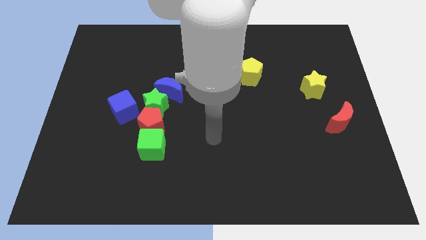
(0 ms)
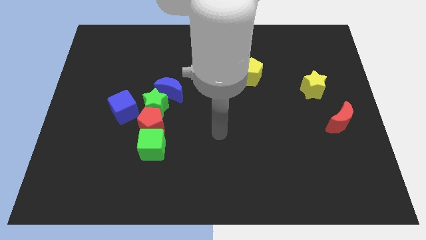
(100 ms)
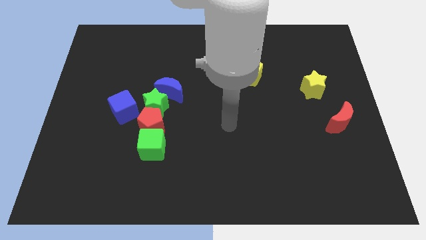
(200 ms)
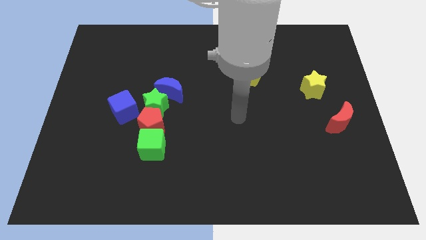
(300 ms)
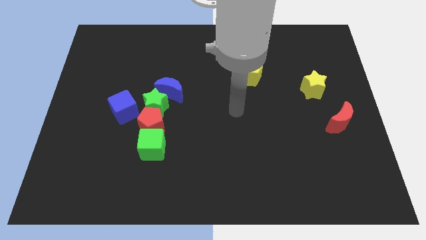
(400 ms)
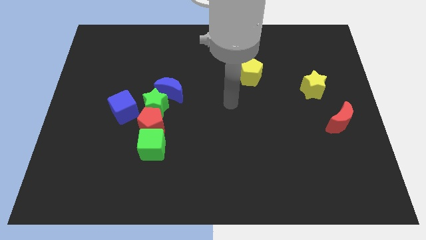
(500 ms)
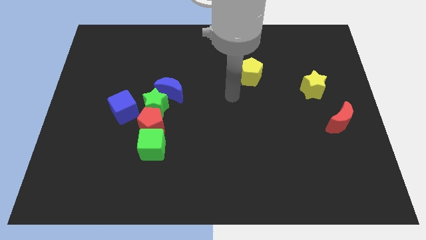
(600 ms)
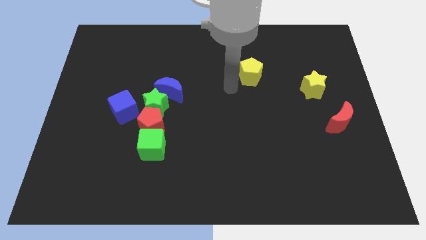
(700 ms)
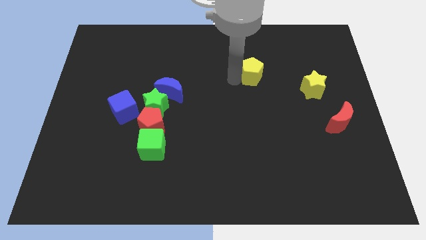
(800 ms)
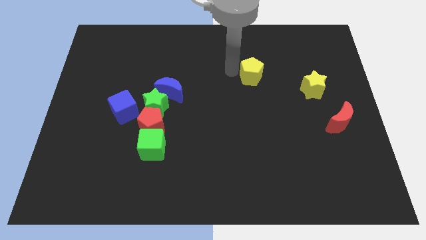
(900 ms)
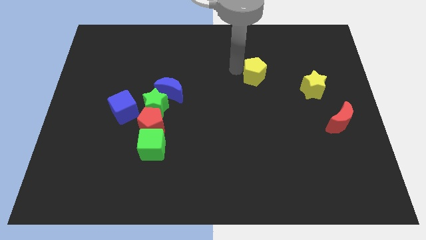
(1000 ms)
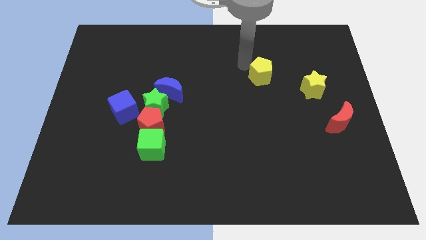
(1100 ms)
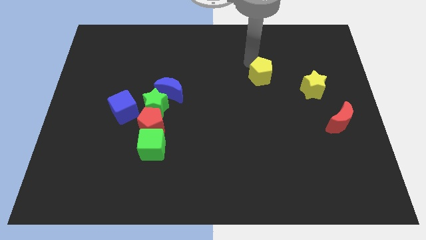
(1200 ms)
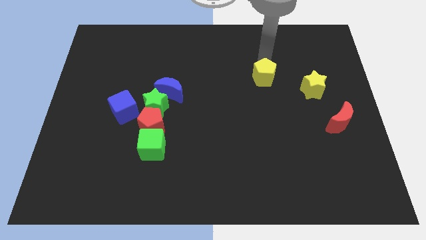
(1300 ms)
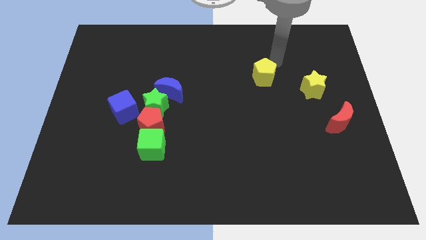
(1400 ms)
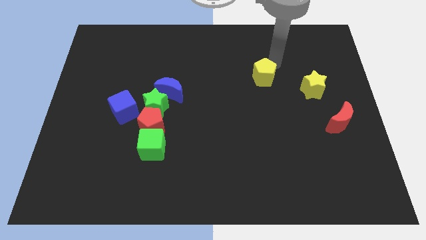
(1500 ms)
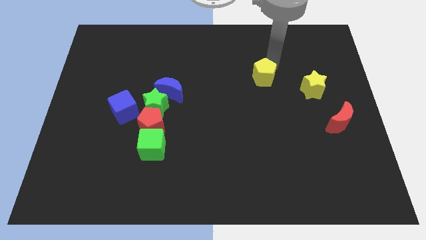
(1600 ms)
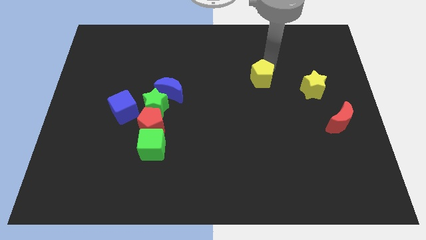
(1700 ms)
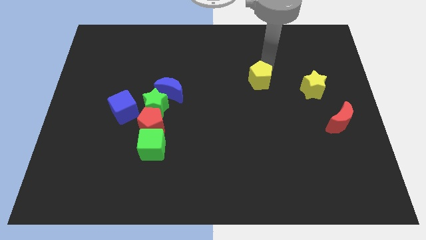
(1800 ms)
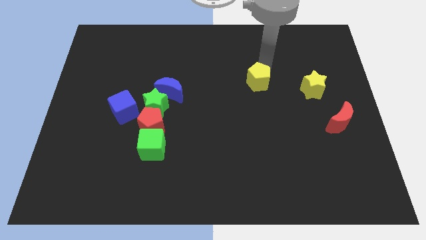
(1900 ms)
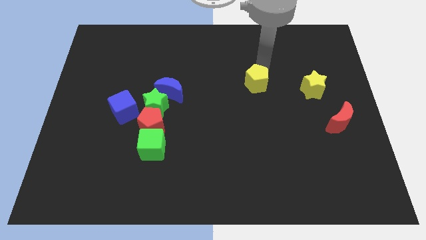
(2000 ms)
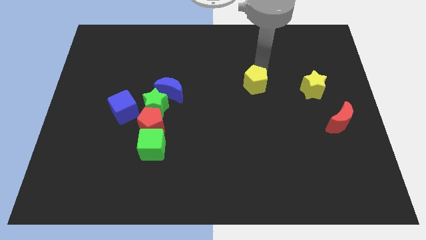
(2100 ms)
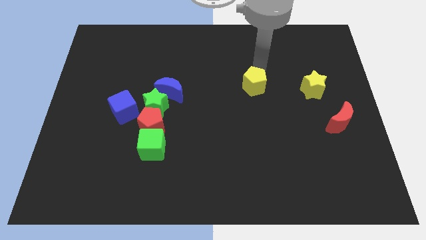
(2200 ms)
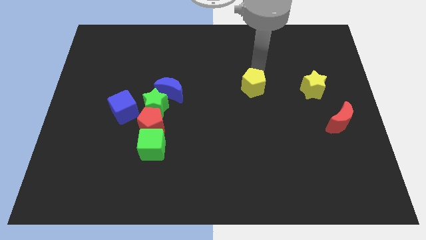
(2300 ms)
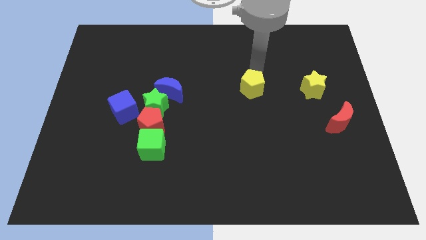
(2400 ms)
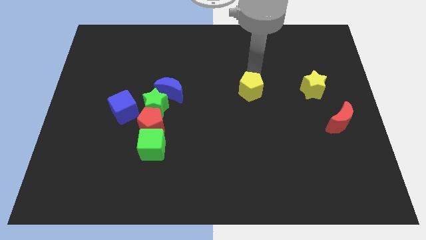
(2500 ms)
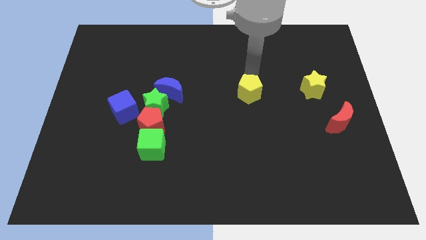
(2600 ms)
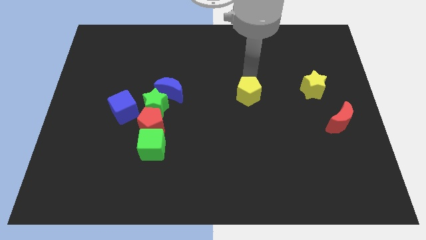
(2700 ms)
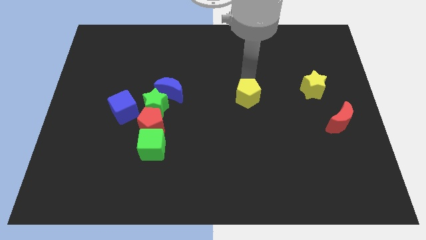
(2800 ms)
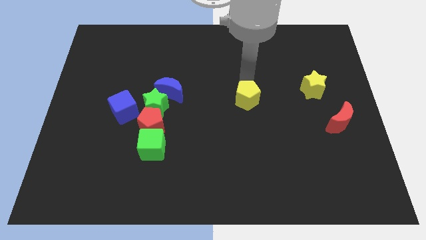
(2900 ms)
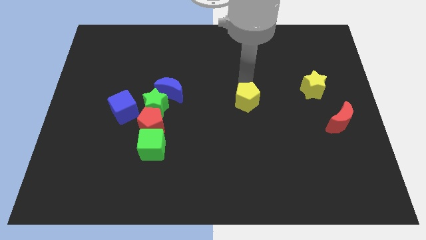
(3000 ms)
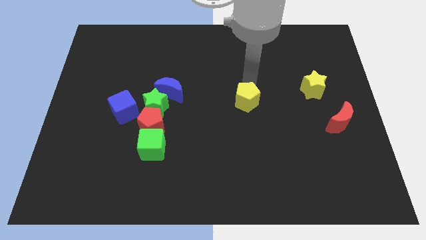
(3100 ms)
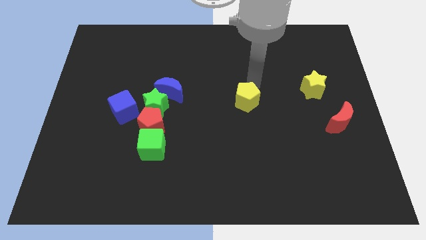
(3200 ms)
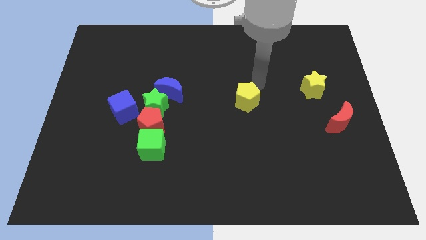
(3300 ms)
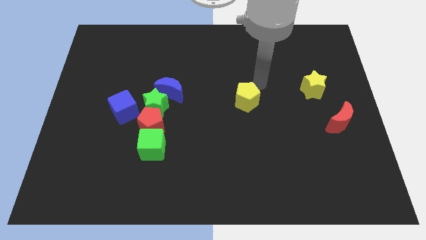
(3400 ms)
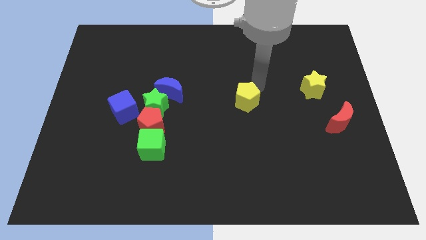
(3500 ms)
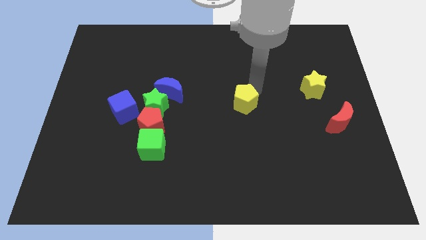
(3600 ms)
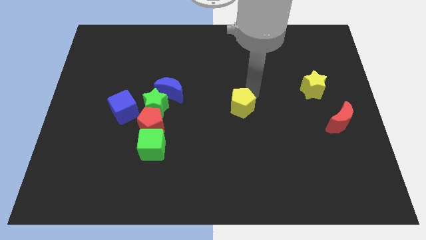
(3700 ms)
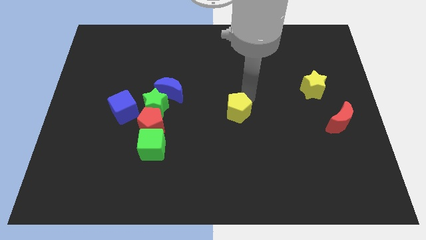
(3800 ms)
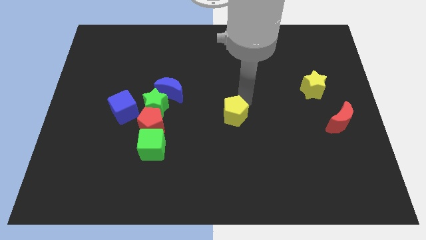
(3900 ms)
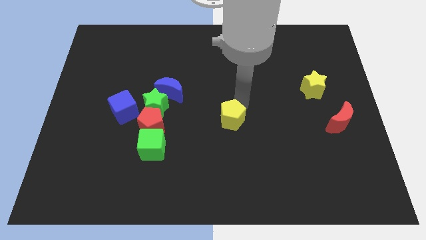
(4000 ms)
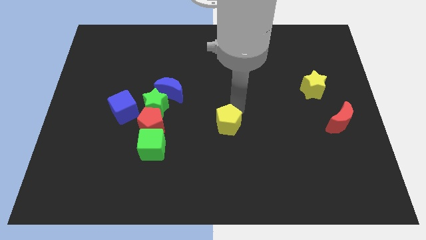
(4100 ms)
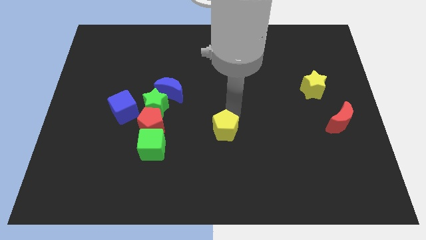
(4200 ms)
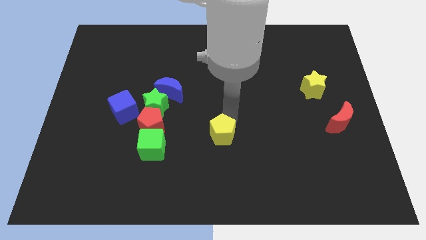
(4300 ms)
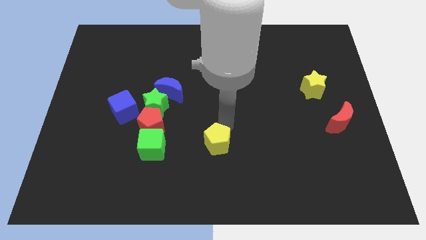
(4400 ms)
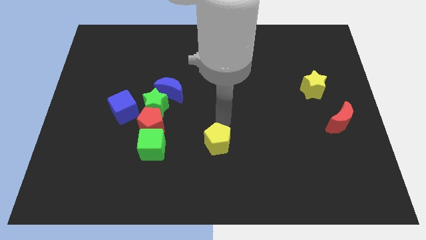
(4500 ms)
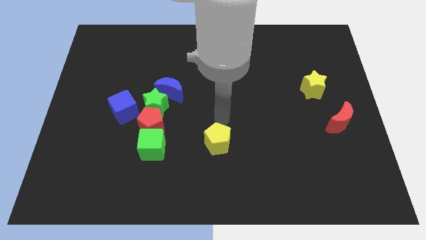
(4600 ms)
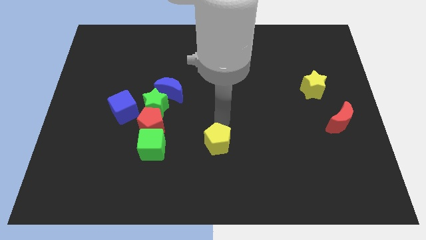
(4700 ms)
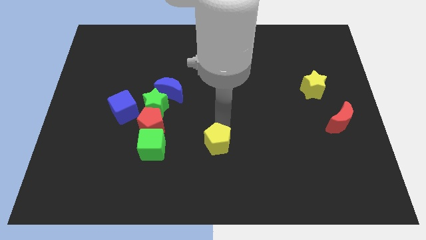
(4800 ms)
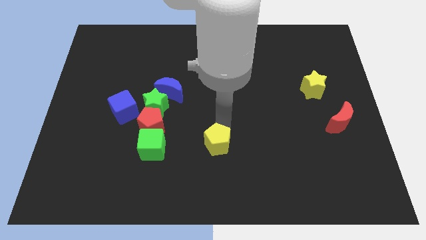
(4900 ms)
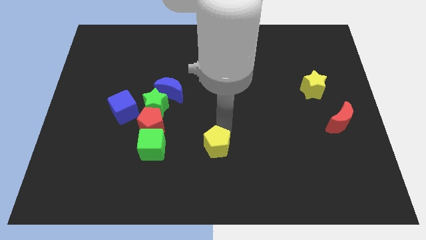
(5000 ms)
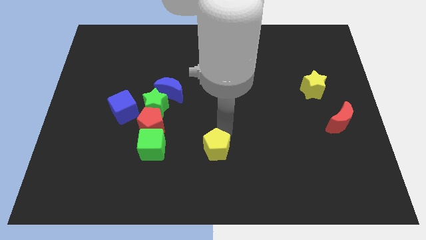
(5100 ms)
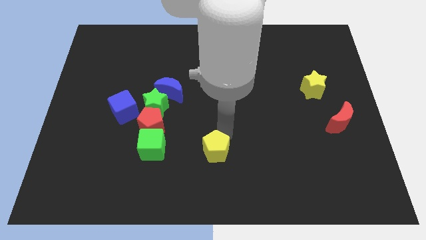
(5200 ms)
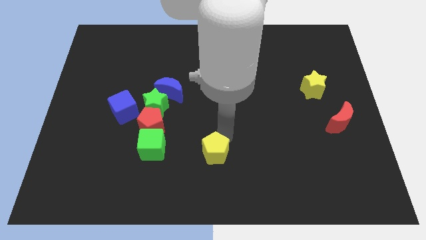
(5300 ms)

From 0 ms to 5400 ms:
slide the yellow pentagon to the bottom side
